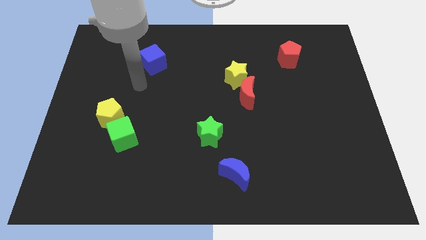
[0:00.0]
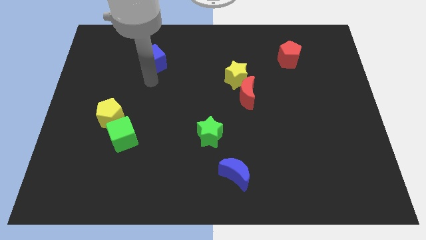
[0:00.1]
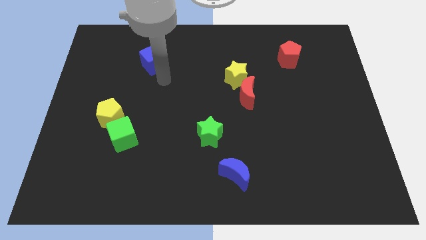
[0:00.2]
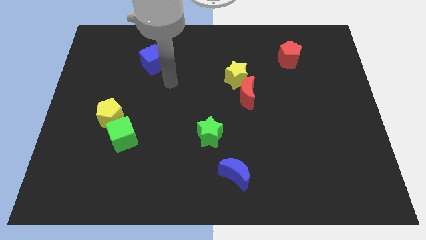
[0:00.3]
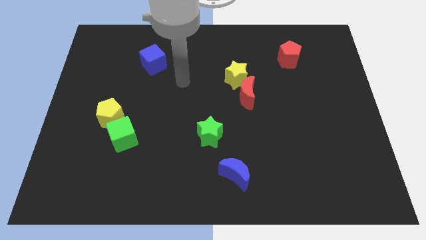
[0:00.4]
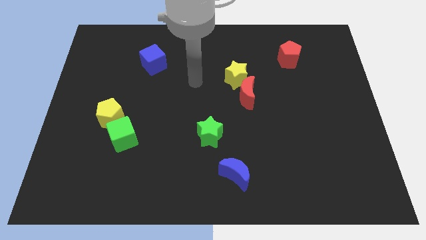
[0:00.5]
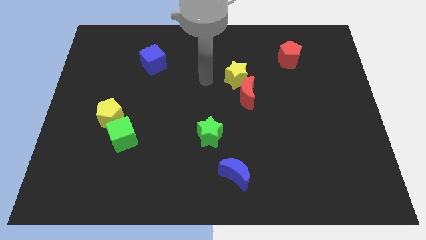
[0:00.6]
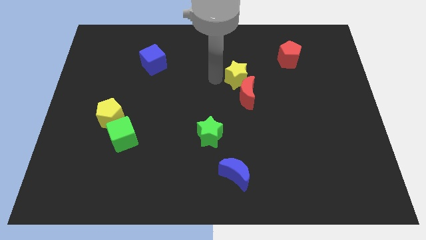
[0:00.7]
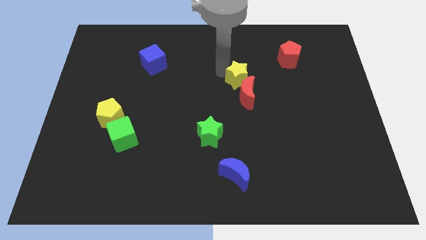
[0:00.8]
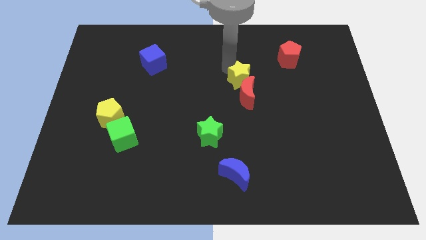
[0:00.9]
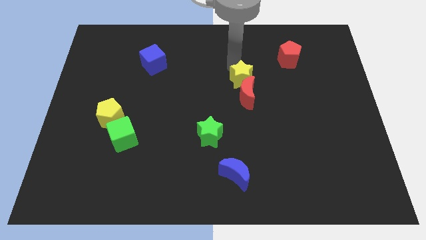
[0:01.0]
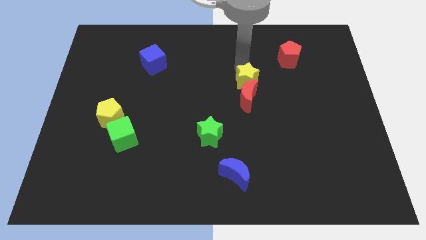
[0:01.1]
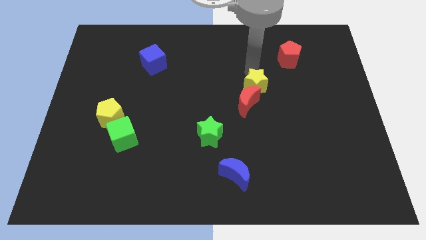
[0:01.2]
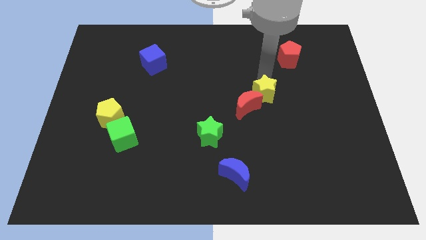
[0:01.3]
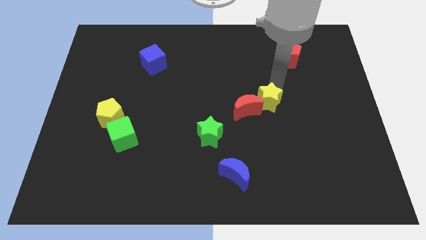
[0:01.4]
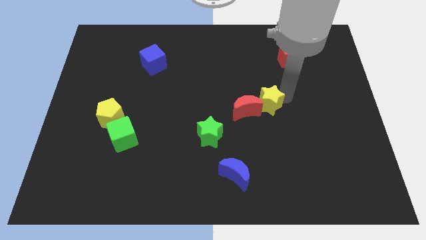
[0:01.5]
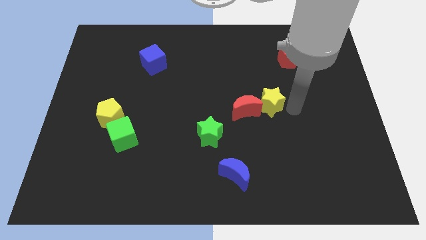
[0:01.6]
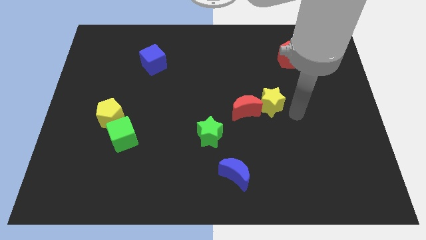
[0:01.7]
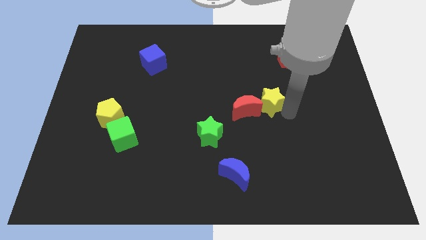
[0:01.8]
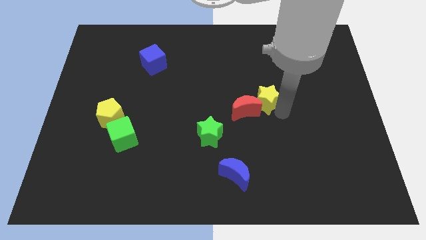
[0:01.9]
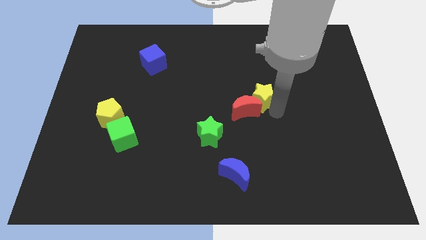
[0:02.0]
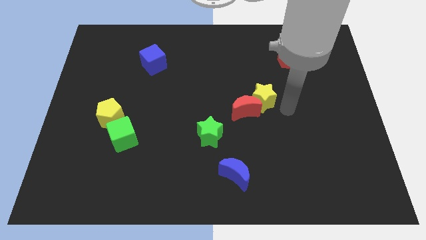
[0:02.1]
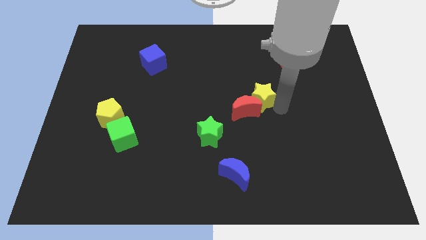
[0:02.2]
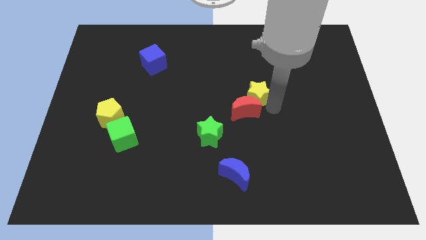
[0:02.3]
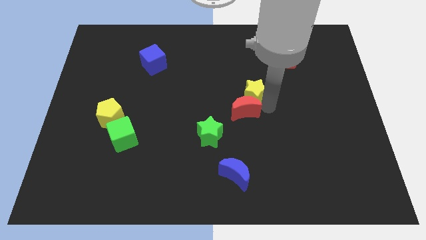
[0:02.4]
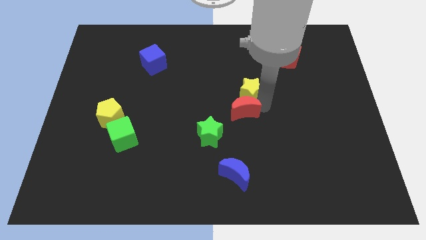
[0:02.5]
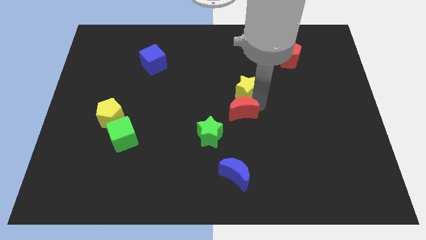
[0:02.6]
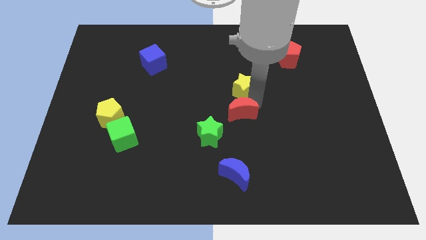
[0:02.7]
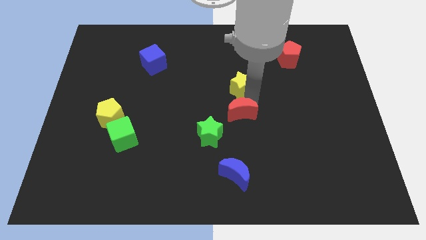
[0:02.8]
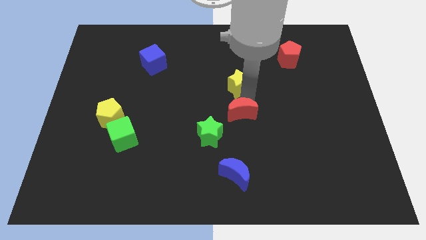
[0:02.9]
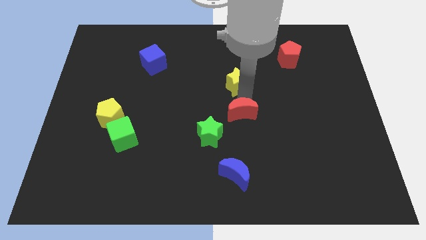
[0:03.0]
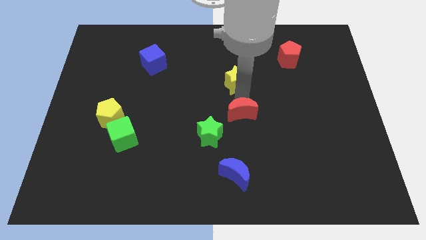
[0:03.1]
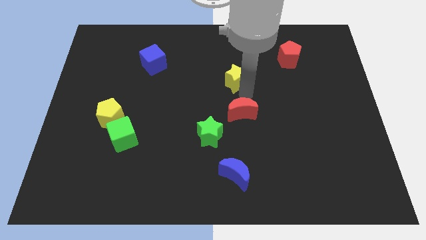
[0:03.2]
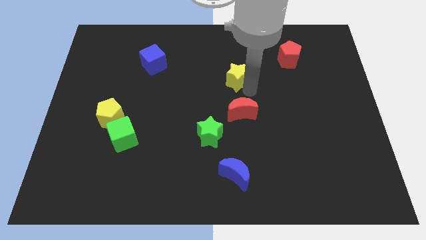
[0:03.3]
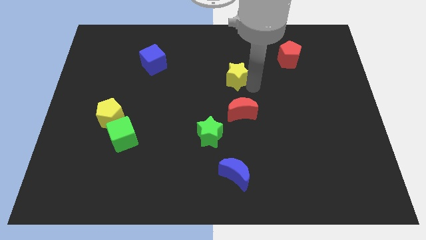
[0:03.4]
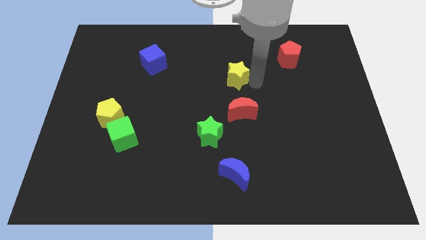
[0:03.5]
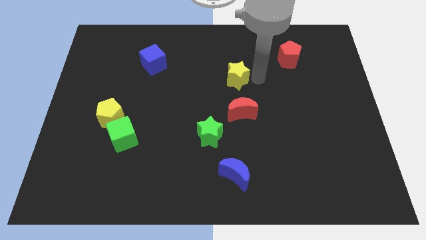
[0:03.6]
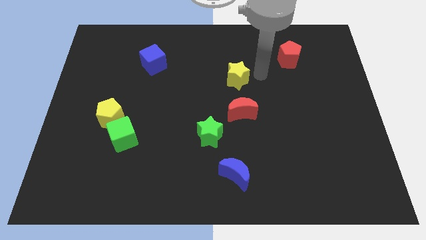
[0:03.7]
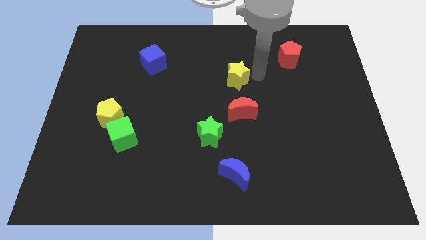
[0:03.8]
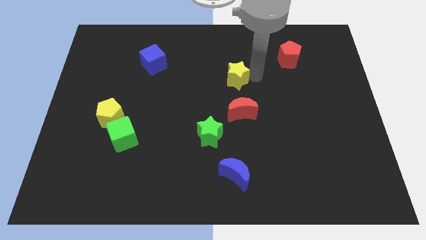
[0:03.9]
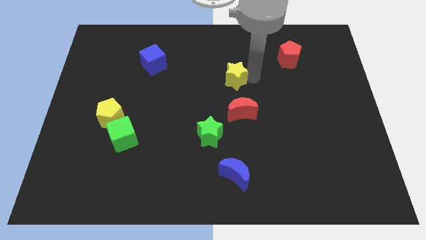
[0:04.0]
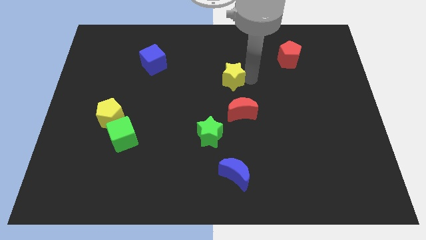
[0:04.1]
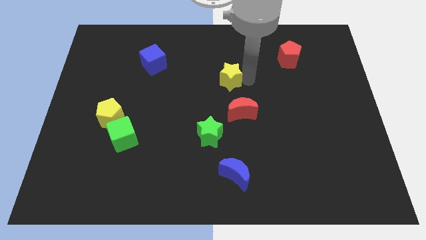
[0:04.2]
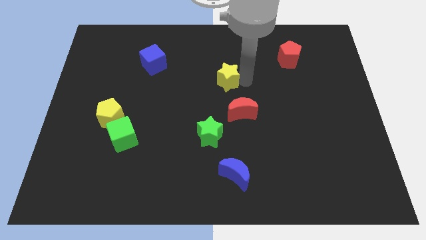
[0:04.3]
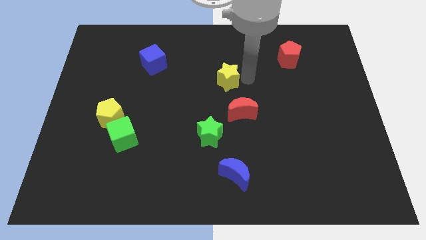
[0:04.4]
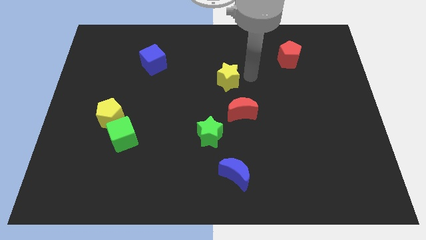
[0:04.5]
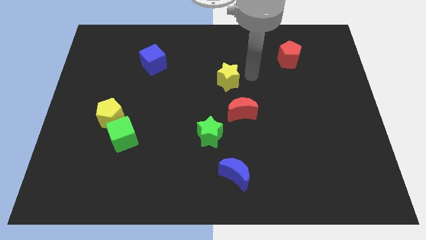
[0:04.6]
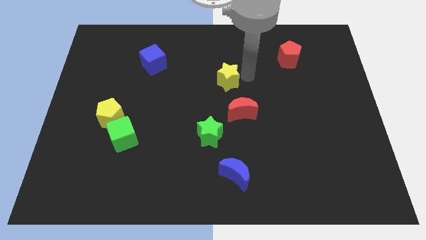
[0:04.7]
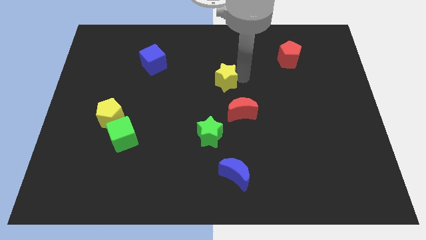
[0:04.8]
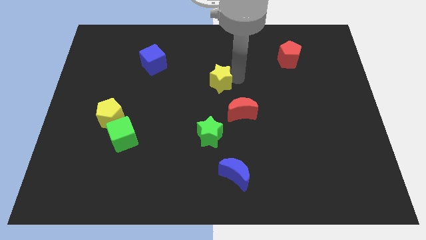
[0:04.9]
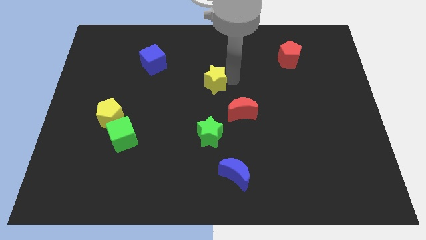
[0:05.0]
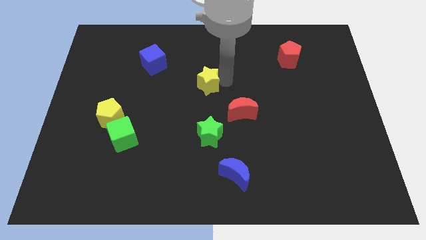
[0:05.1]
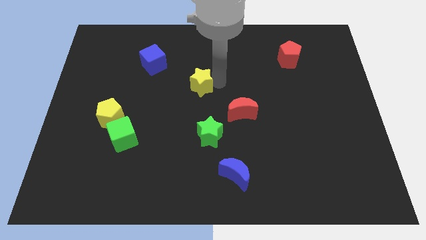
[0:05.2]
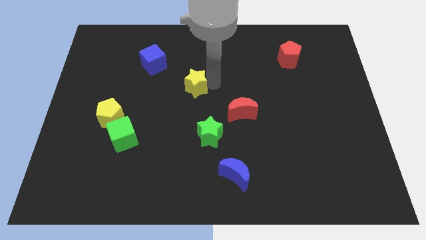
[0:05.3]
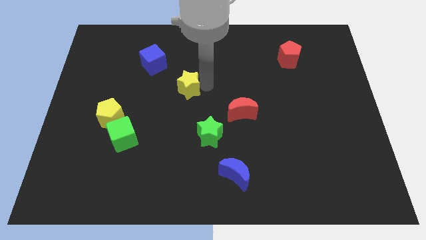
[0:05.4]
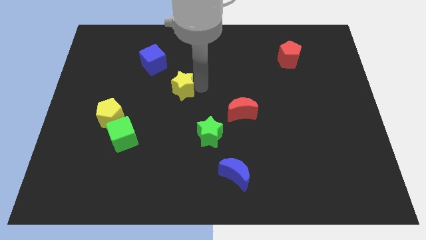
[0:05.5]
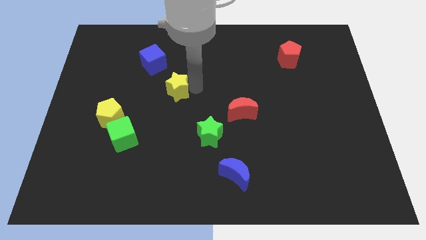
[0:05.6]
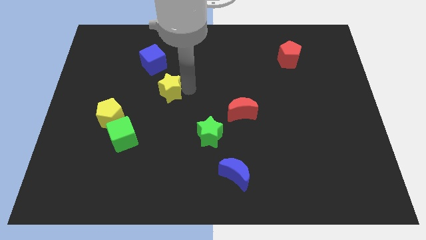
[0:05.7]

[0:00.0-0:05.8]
move the yellow star to the bottom of the blue cube

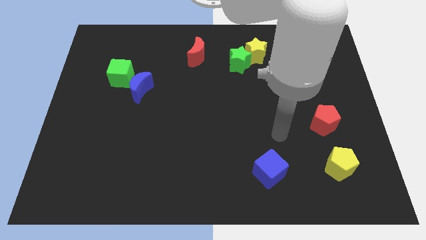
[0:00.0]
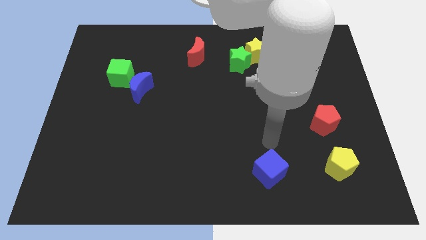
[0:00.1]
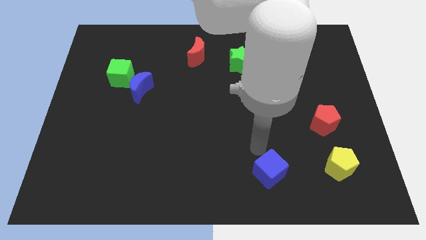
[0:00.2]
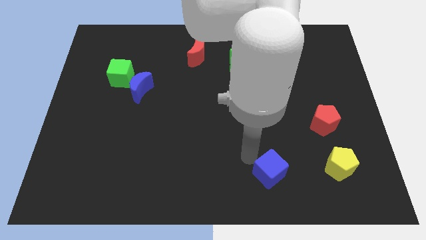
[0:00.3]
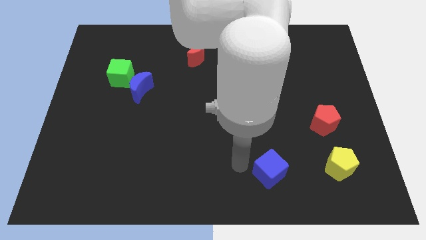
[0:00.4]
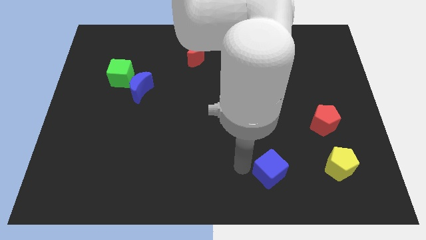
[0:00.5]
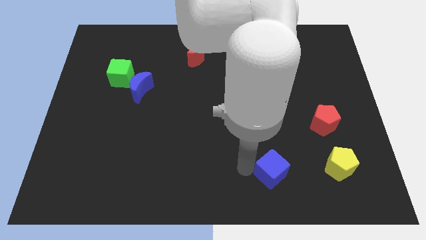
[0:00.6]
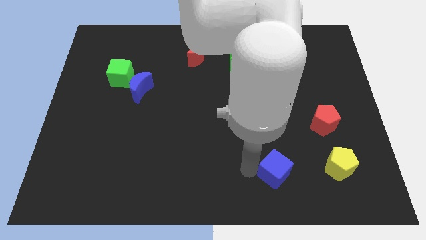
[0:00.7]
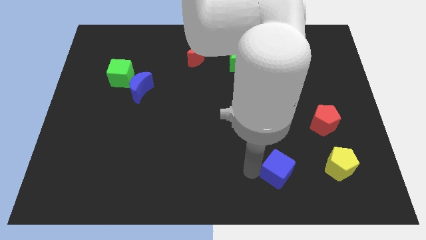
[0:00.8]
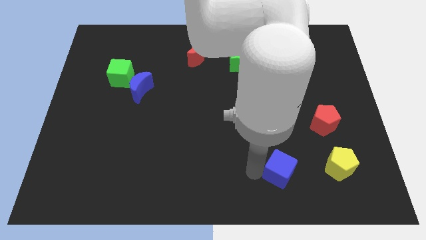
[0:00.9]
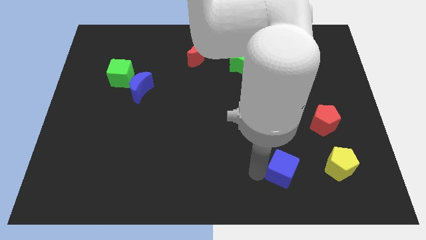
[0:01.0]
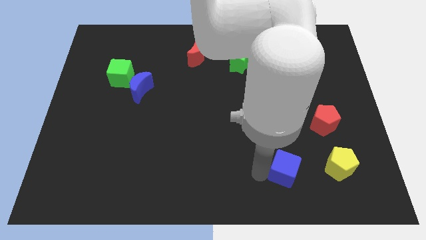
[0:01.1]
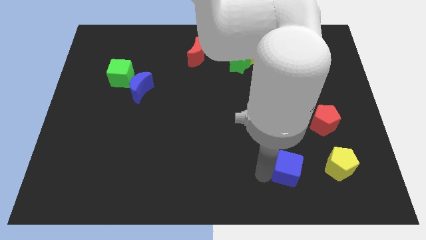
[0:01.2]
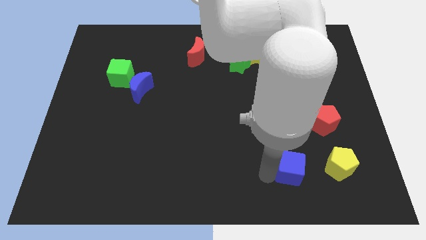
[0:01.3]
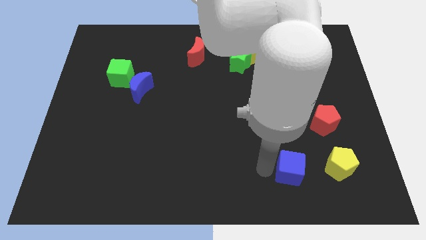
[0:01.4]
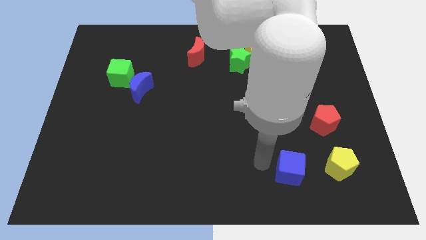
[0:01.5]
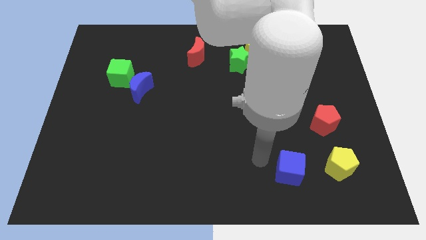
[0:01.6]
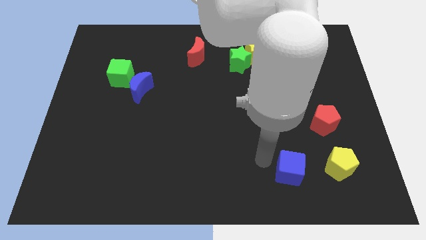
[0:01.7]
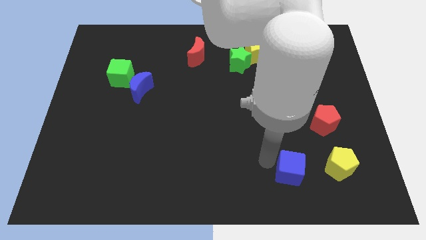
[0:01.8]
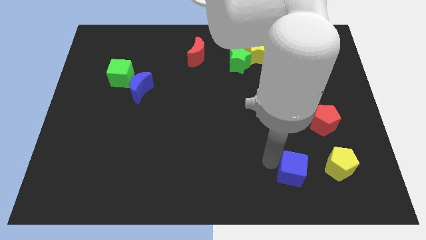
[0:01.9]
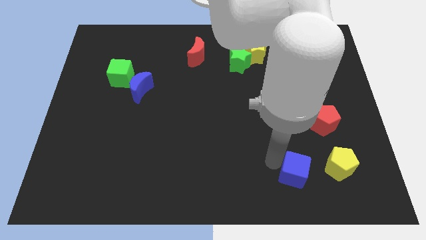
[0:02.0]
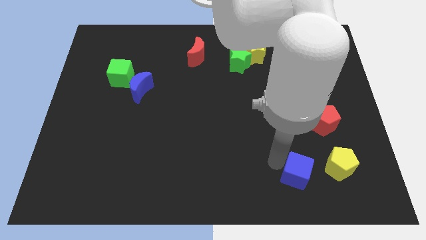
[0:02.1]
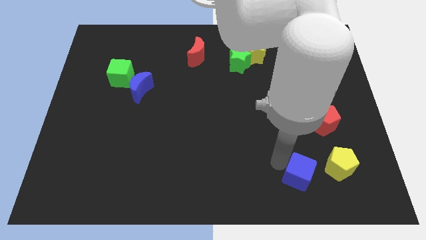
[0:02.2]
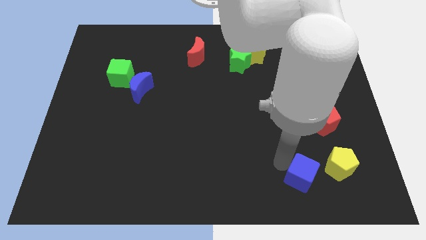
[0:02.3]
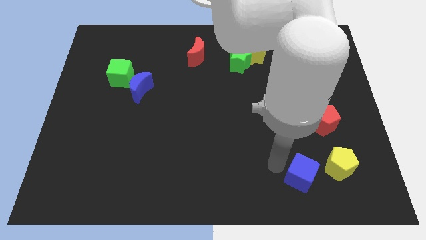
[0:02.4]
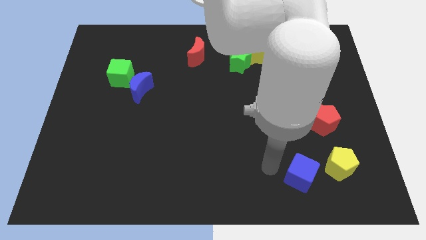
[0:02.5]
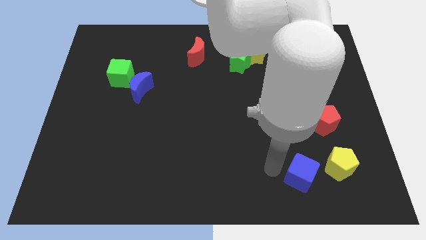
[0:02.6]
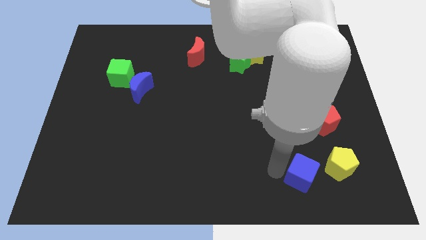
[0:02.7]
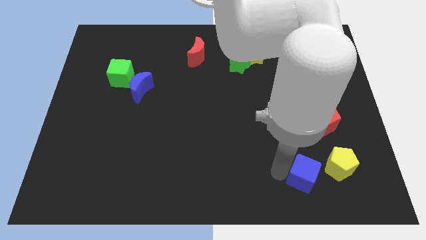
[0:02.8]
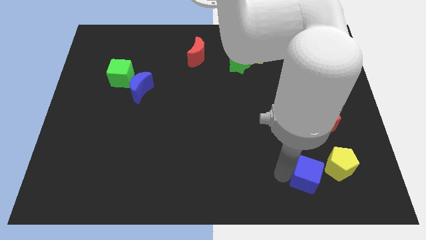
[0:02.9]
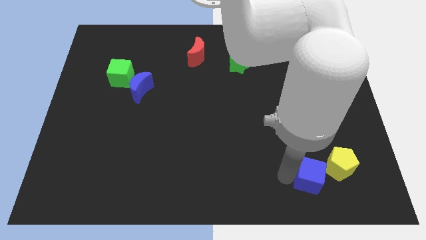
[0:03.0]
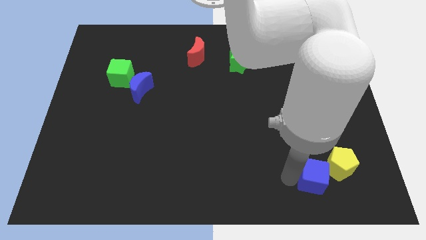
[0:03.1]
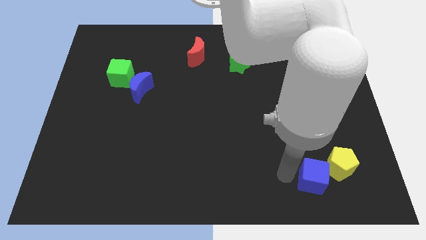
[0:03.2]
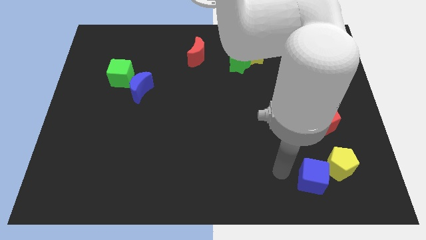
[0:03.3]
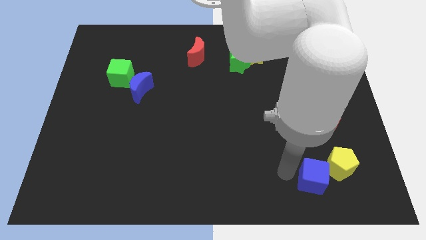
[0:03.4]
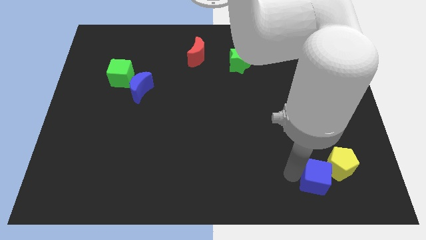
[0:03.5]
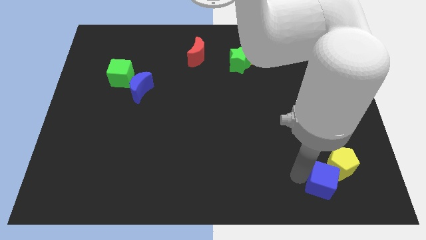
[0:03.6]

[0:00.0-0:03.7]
slide the blue cube below the red pentagon
